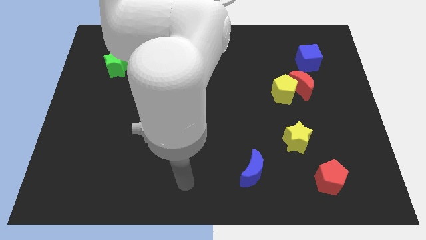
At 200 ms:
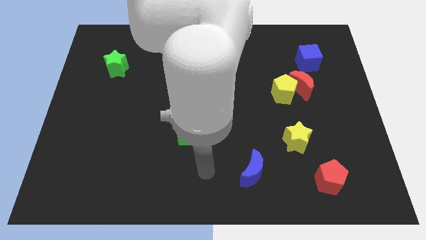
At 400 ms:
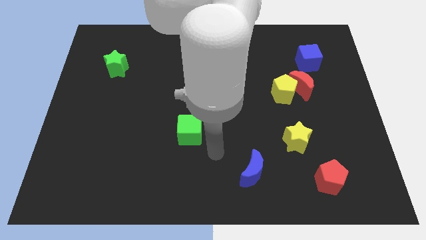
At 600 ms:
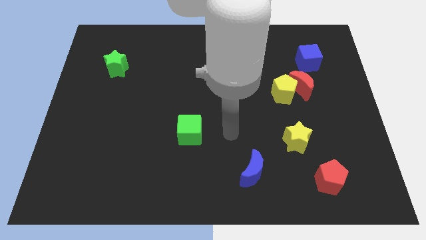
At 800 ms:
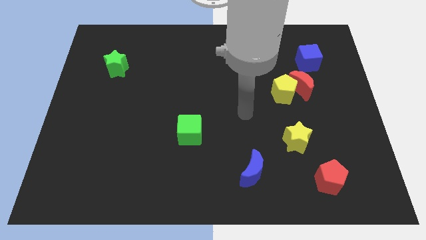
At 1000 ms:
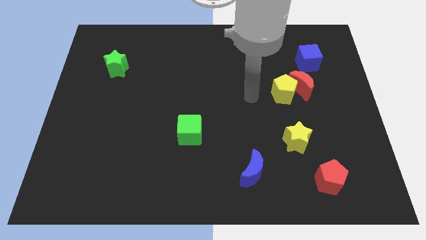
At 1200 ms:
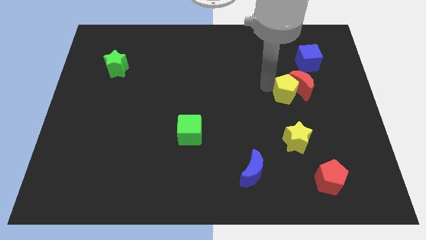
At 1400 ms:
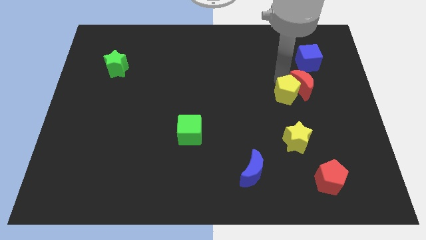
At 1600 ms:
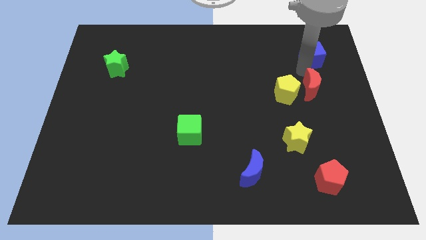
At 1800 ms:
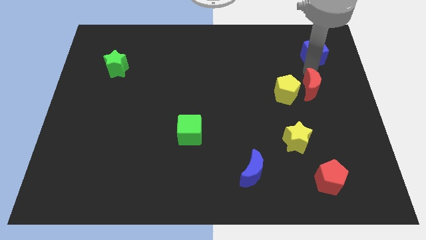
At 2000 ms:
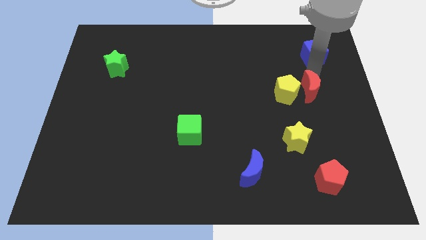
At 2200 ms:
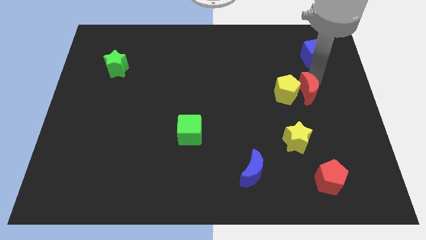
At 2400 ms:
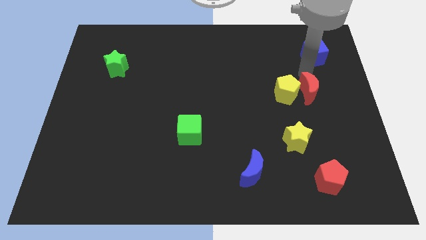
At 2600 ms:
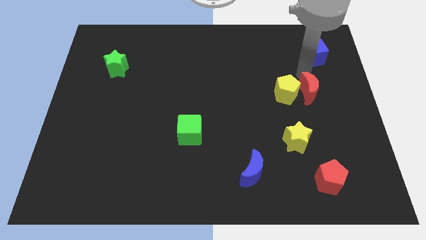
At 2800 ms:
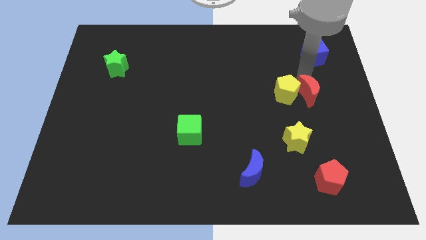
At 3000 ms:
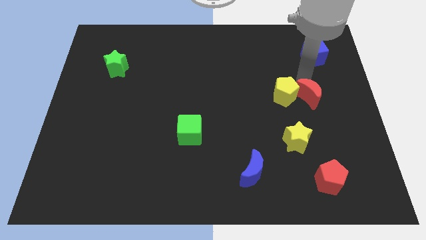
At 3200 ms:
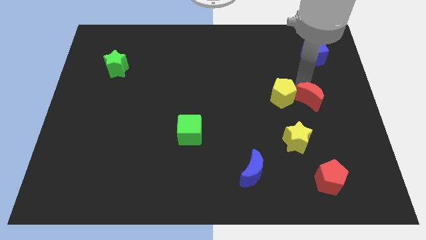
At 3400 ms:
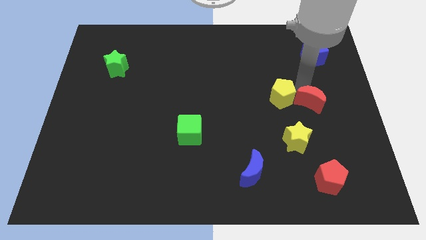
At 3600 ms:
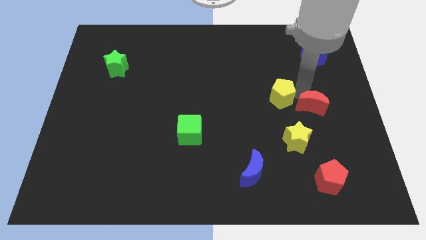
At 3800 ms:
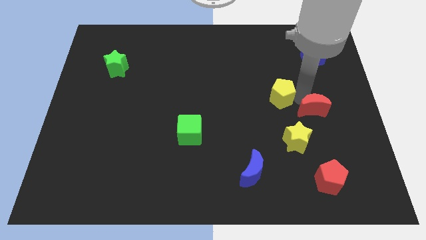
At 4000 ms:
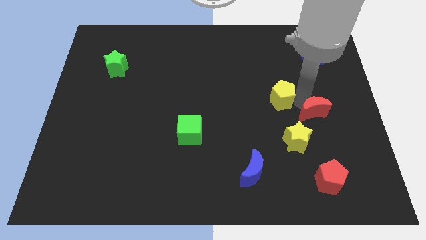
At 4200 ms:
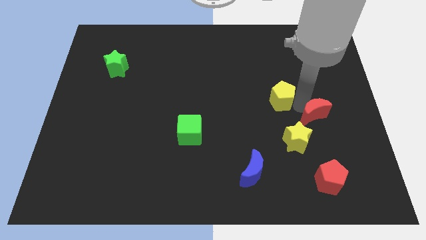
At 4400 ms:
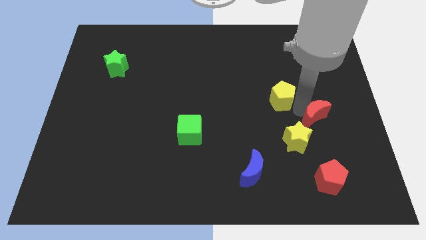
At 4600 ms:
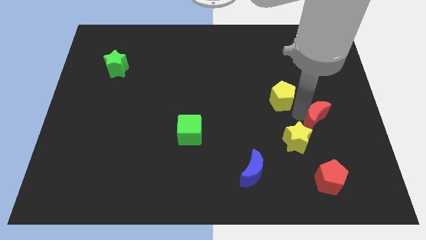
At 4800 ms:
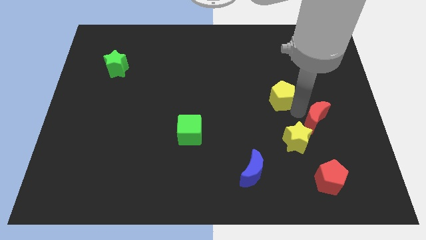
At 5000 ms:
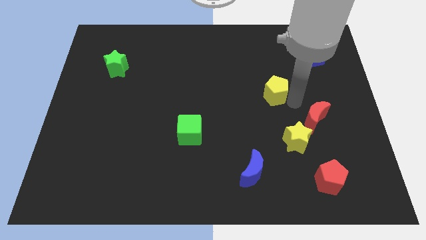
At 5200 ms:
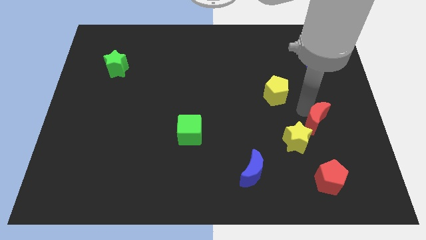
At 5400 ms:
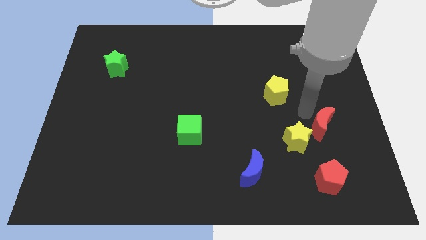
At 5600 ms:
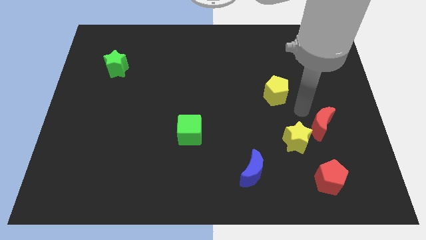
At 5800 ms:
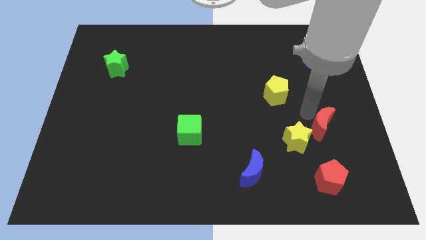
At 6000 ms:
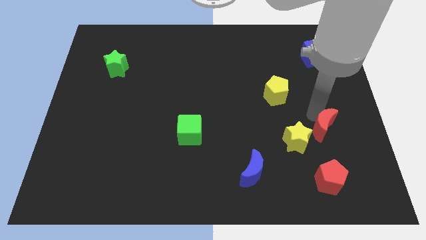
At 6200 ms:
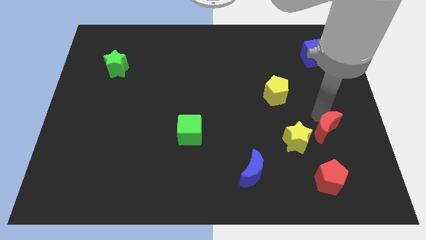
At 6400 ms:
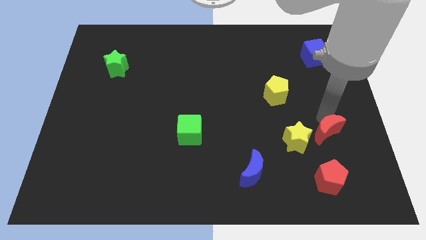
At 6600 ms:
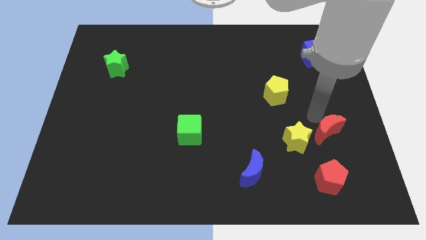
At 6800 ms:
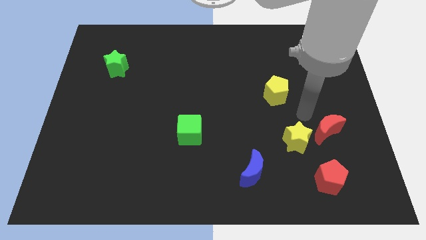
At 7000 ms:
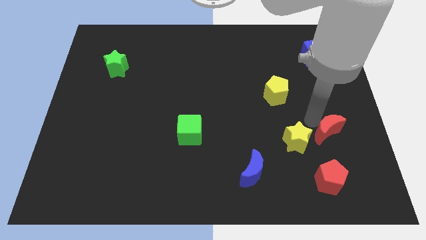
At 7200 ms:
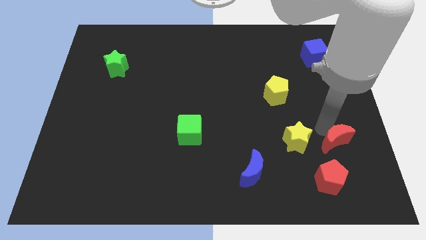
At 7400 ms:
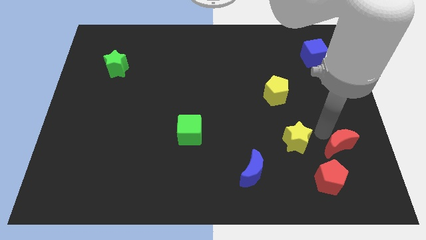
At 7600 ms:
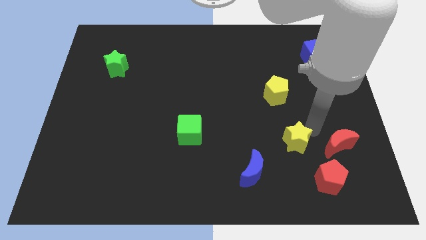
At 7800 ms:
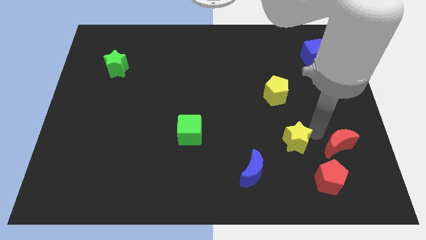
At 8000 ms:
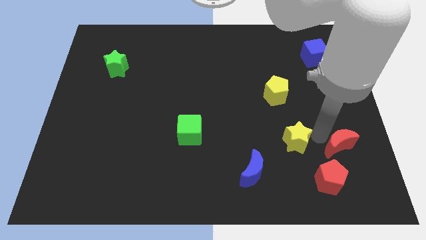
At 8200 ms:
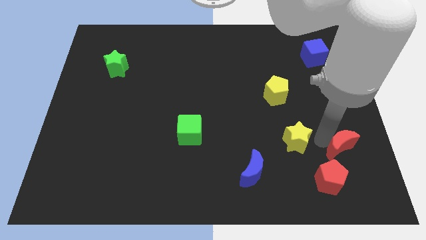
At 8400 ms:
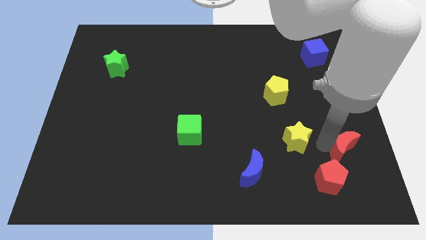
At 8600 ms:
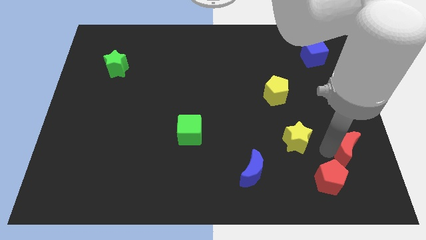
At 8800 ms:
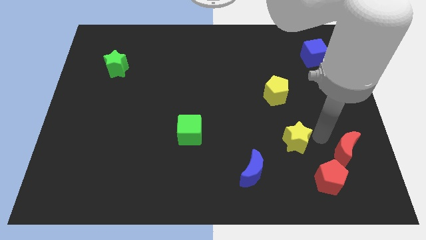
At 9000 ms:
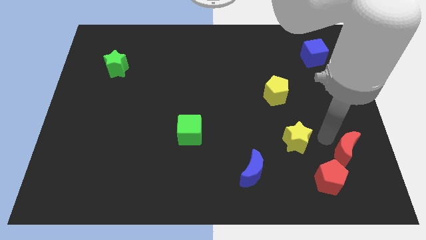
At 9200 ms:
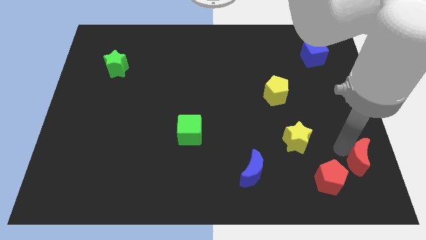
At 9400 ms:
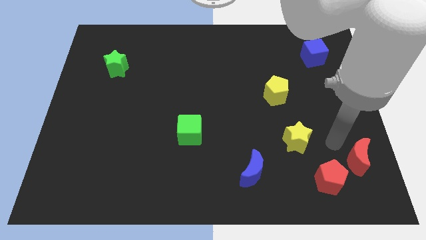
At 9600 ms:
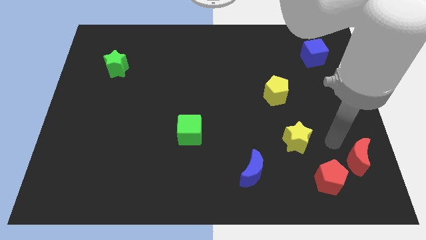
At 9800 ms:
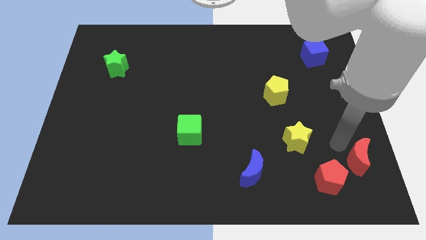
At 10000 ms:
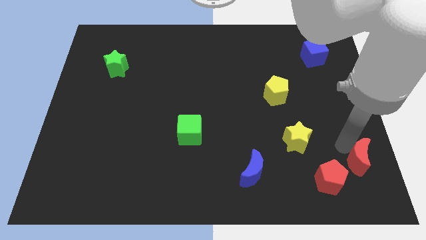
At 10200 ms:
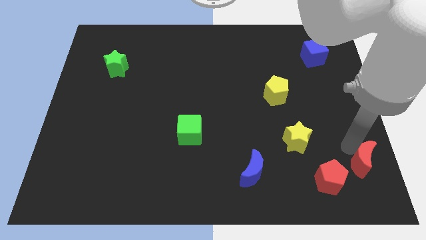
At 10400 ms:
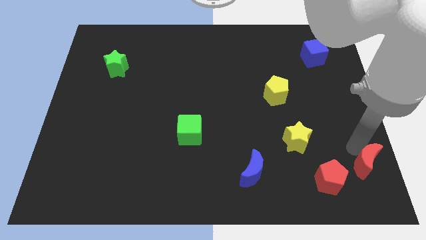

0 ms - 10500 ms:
slide the red moon to the bottom right corner
